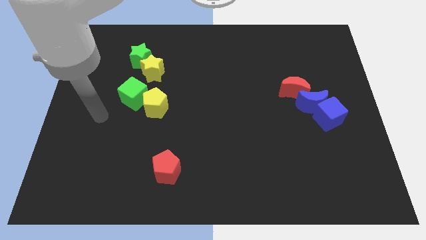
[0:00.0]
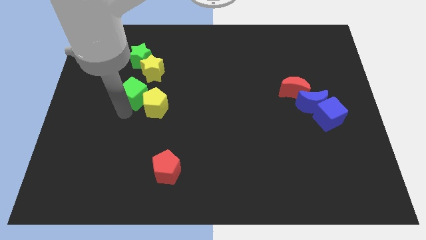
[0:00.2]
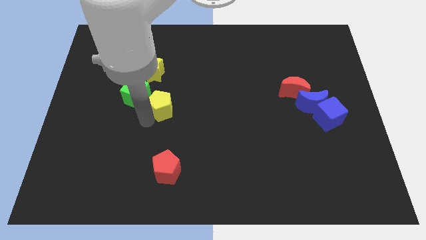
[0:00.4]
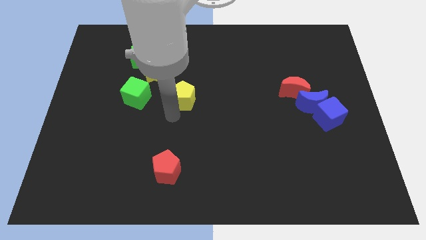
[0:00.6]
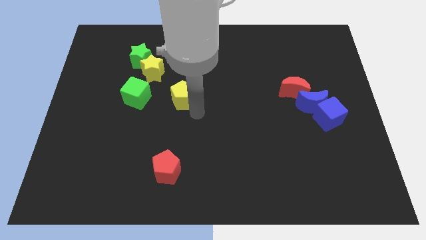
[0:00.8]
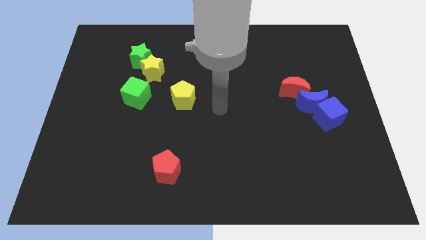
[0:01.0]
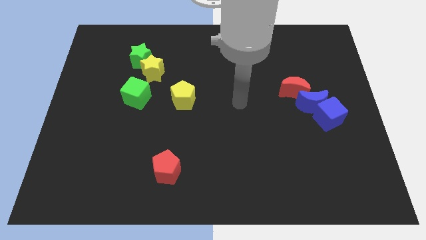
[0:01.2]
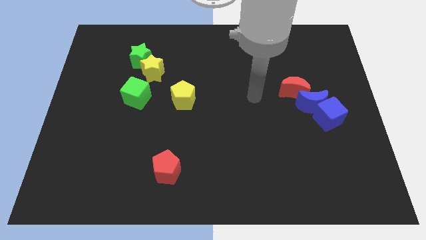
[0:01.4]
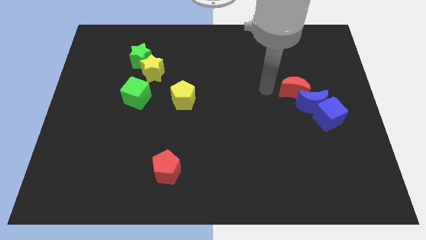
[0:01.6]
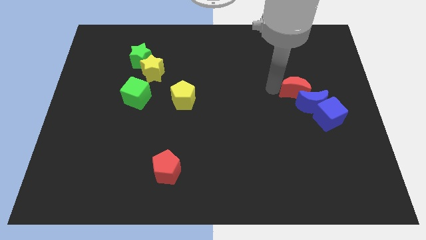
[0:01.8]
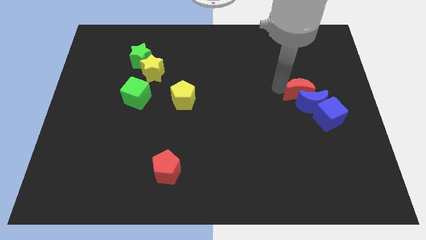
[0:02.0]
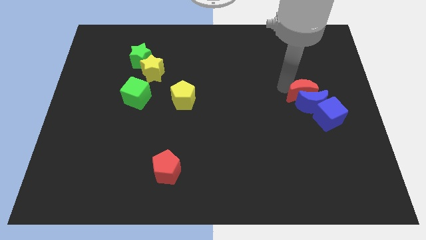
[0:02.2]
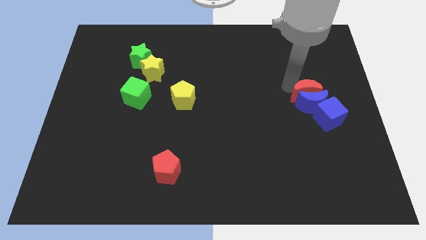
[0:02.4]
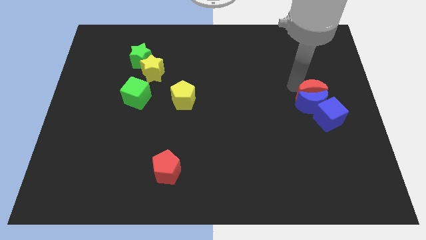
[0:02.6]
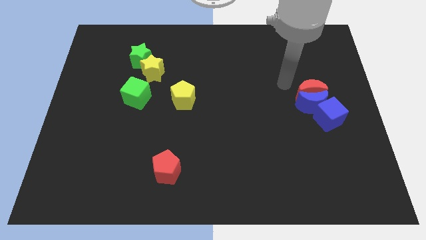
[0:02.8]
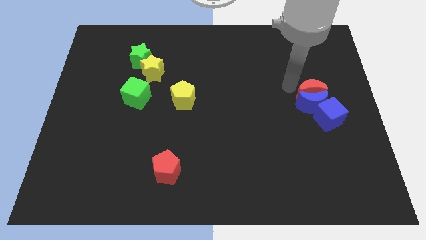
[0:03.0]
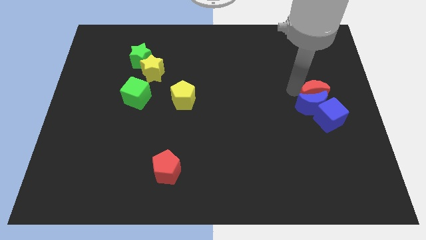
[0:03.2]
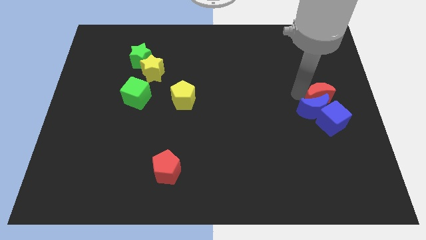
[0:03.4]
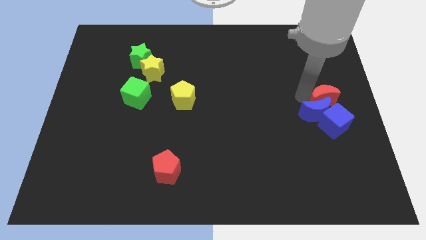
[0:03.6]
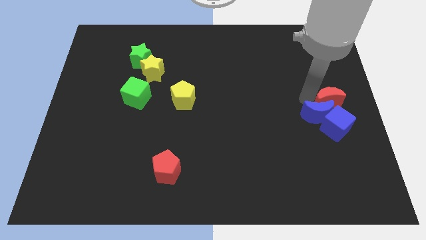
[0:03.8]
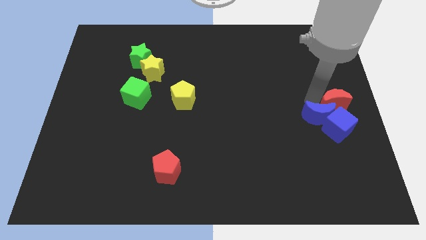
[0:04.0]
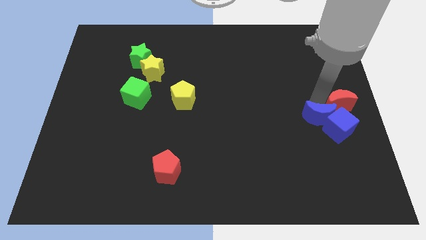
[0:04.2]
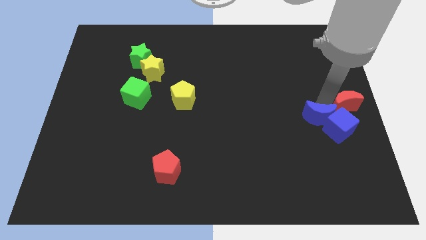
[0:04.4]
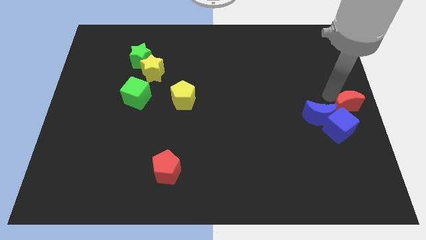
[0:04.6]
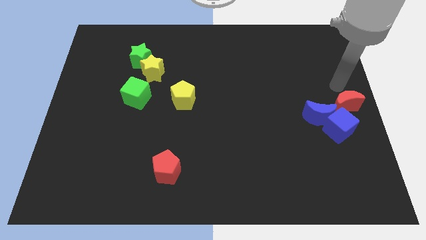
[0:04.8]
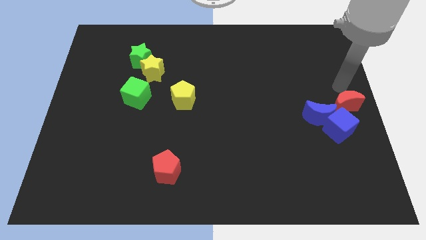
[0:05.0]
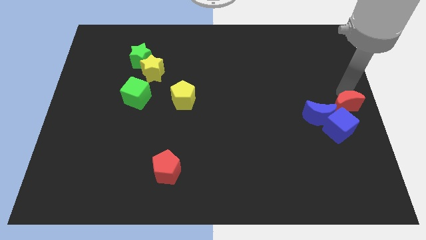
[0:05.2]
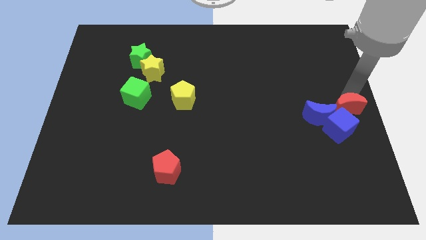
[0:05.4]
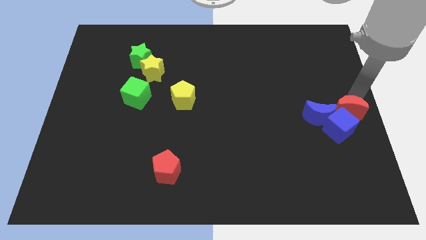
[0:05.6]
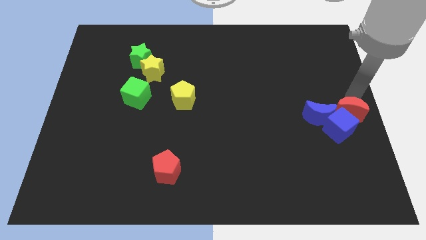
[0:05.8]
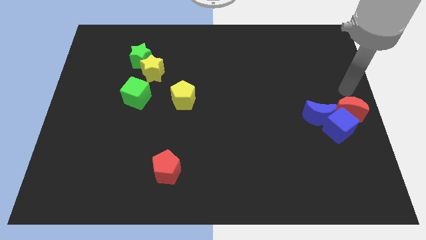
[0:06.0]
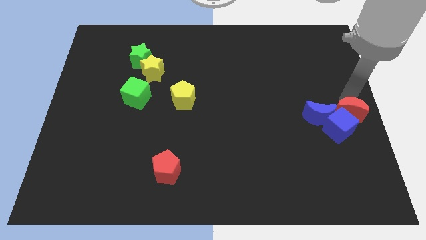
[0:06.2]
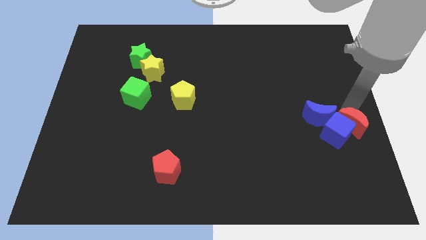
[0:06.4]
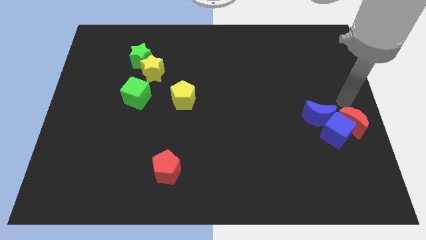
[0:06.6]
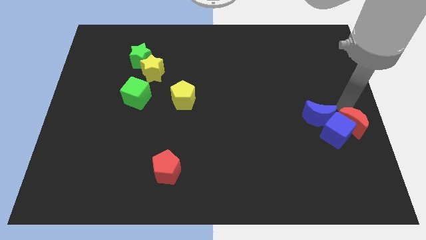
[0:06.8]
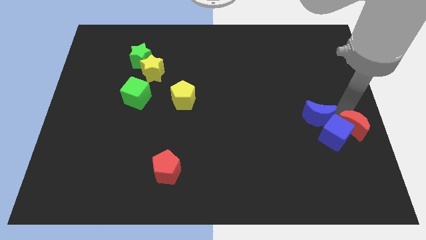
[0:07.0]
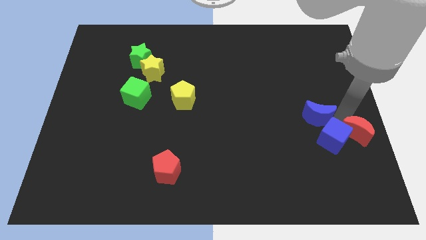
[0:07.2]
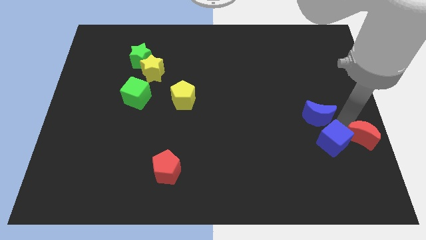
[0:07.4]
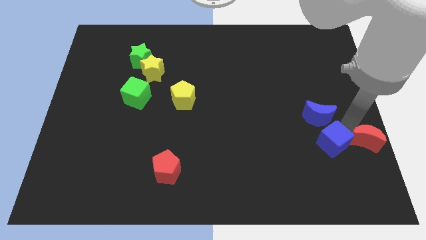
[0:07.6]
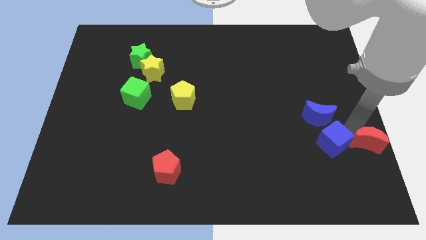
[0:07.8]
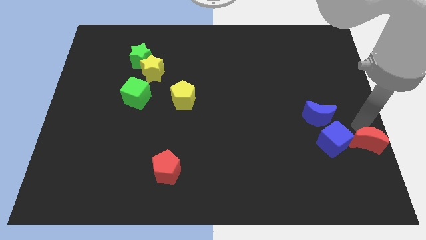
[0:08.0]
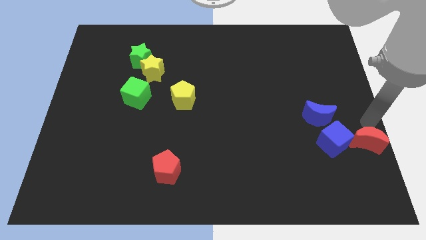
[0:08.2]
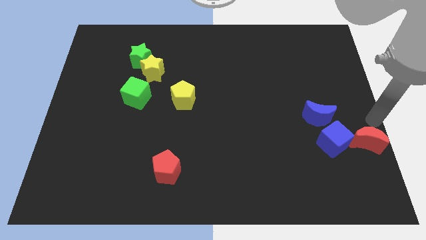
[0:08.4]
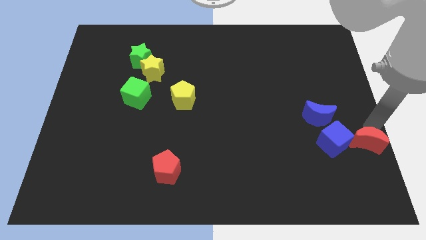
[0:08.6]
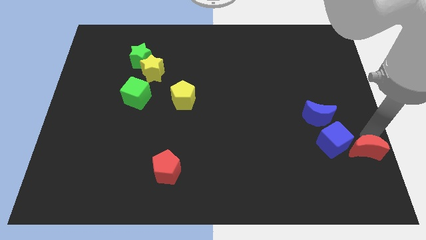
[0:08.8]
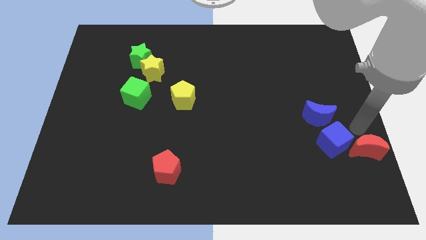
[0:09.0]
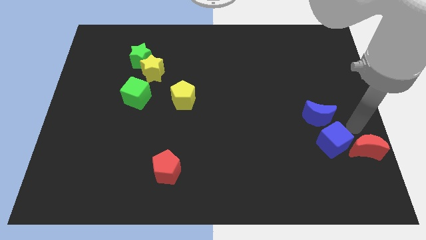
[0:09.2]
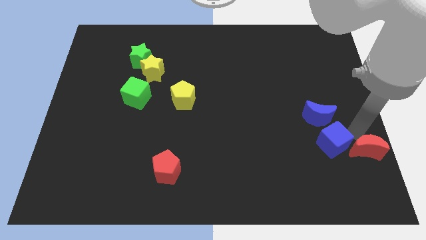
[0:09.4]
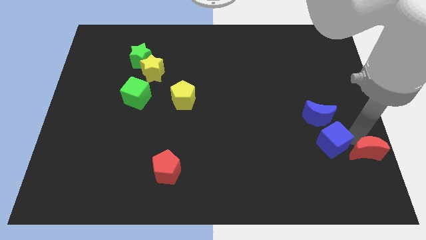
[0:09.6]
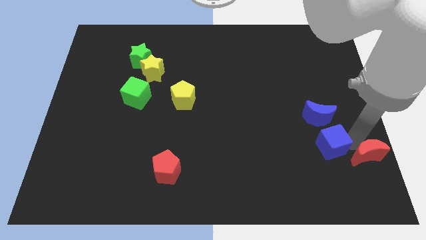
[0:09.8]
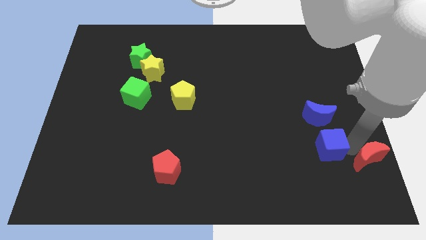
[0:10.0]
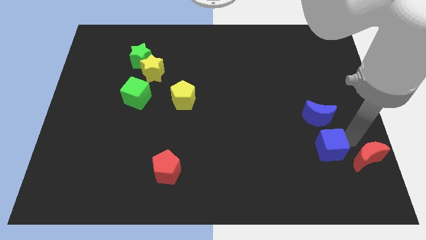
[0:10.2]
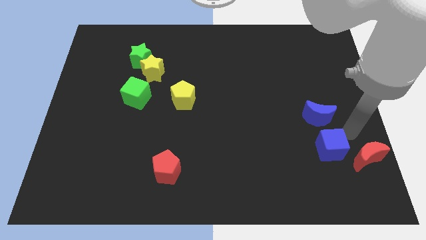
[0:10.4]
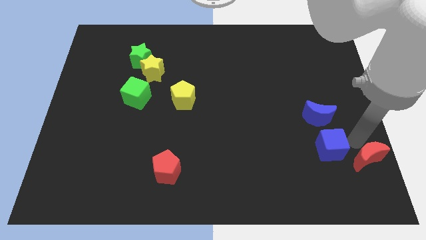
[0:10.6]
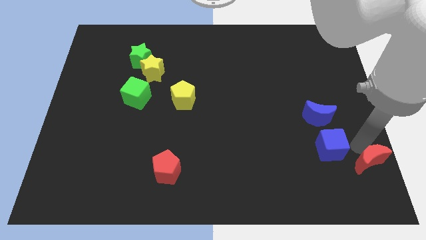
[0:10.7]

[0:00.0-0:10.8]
move the red moon to the lower right corner
